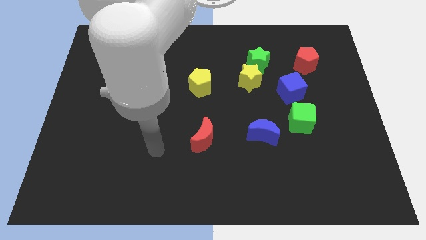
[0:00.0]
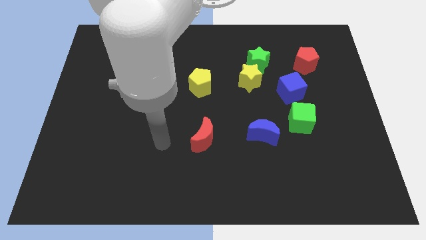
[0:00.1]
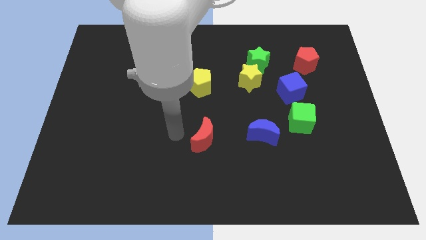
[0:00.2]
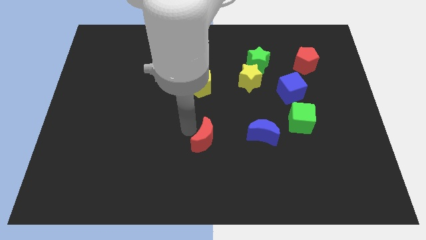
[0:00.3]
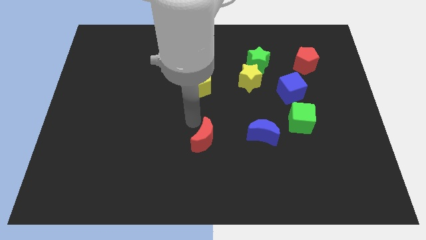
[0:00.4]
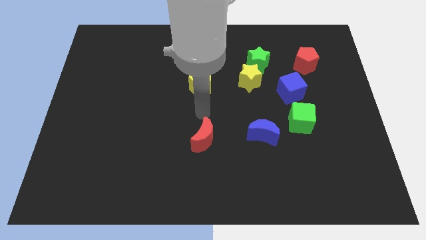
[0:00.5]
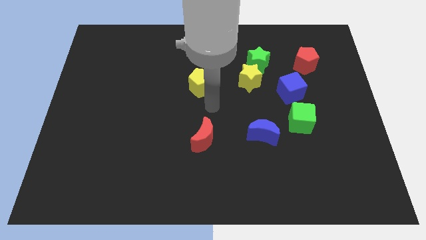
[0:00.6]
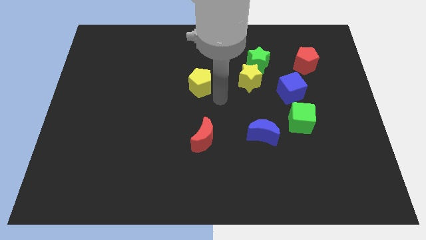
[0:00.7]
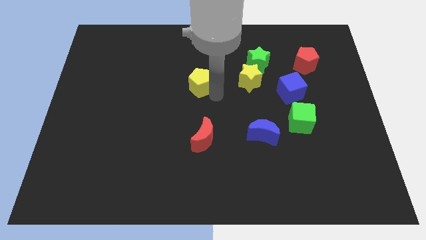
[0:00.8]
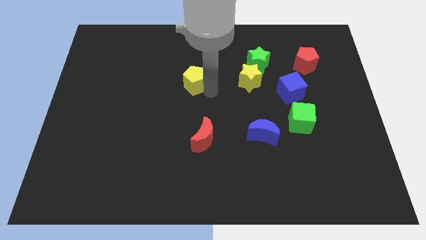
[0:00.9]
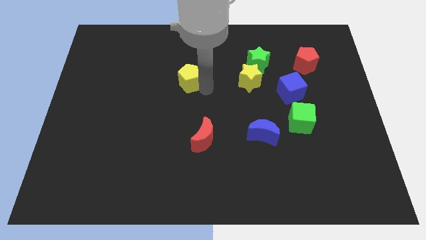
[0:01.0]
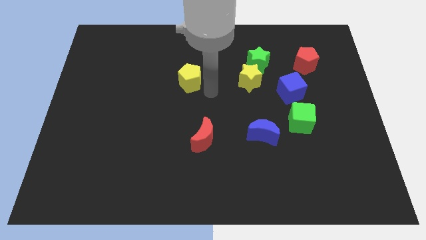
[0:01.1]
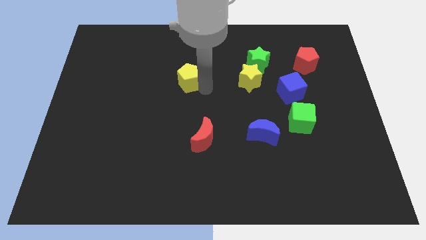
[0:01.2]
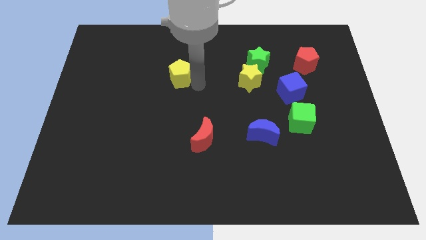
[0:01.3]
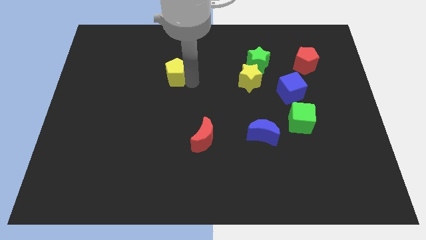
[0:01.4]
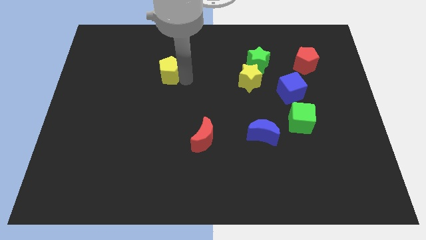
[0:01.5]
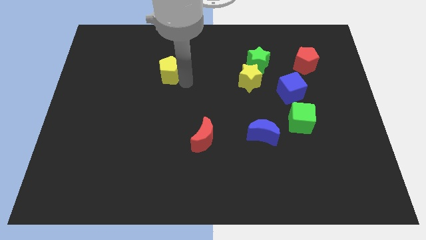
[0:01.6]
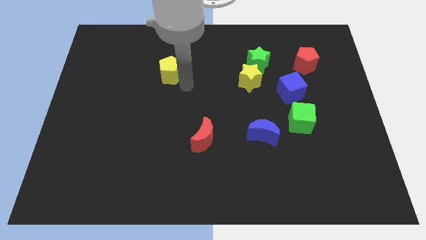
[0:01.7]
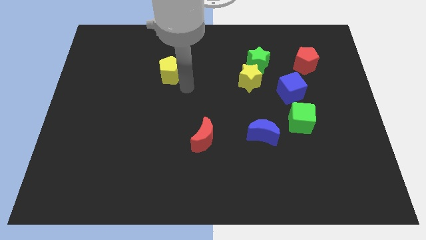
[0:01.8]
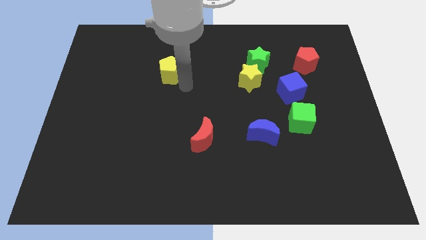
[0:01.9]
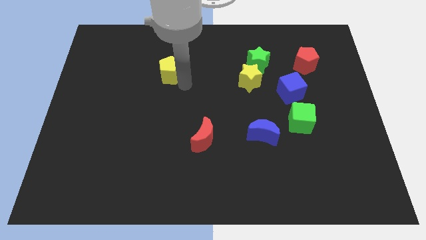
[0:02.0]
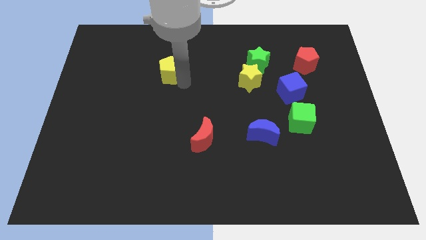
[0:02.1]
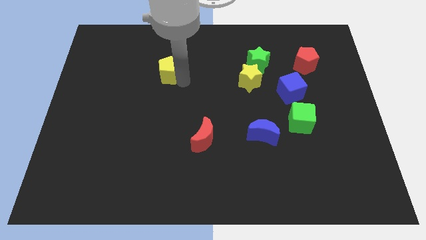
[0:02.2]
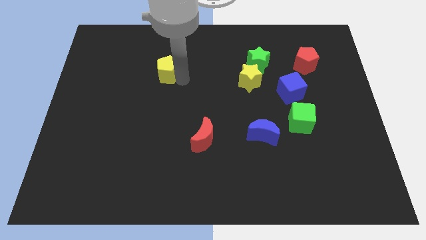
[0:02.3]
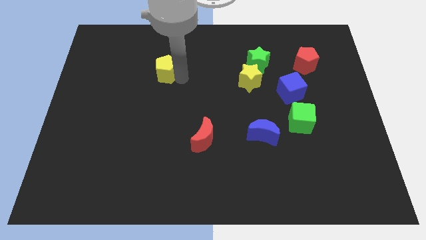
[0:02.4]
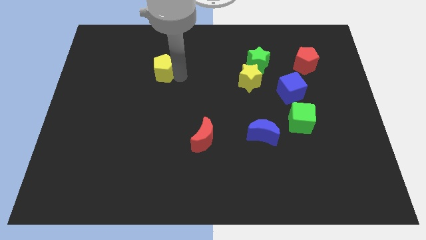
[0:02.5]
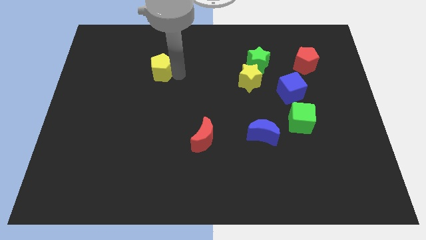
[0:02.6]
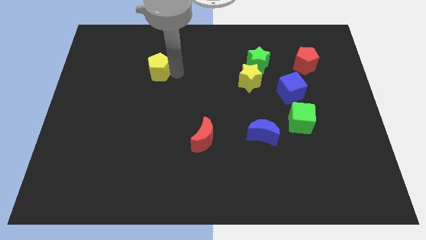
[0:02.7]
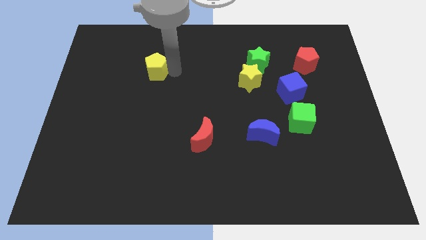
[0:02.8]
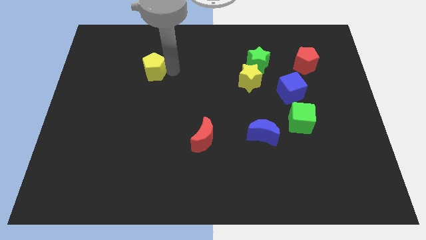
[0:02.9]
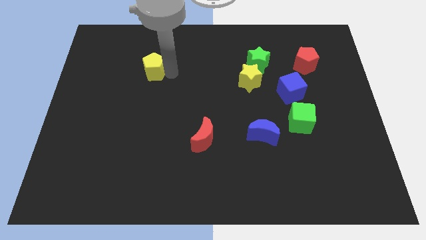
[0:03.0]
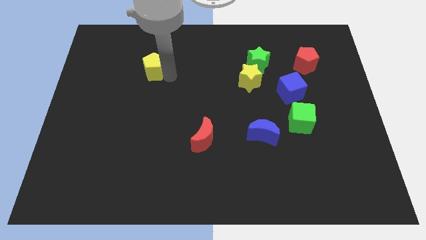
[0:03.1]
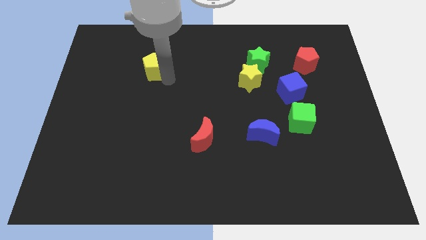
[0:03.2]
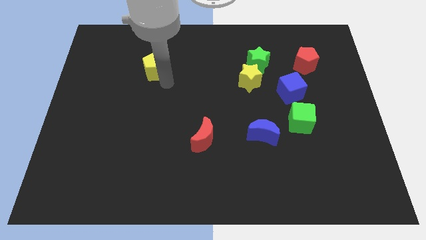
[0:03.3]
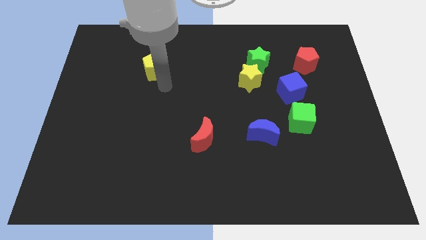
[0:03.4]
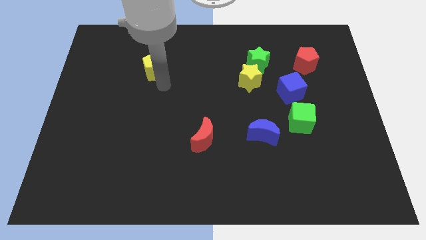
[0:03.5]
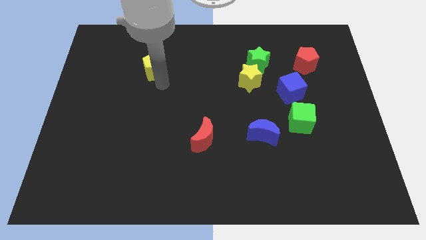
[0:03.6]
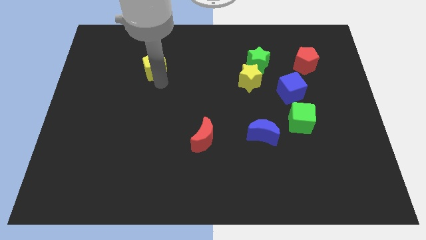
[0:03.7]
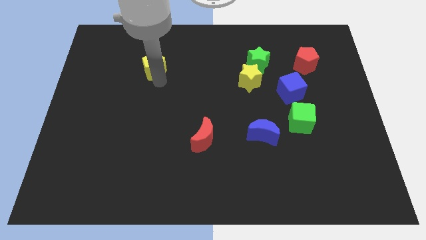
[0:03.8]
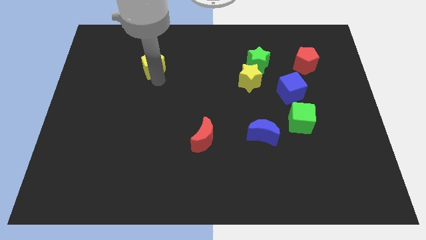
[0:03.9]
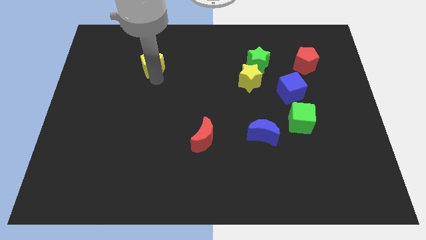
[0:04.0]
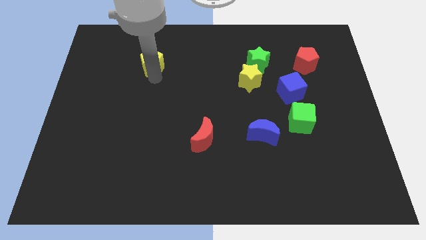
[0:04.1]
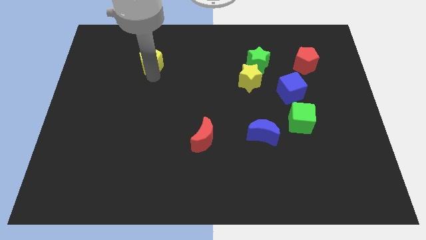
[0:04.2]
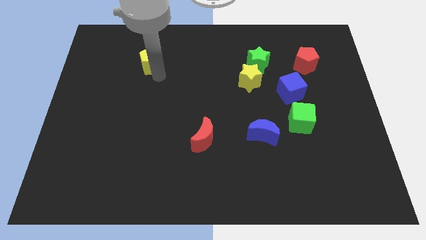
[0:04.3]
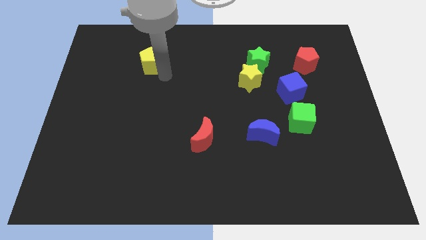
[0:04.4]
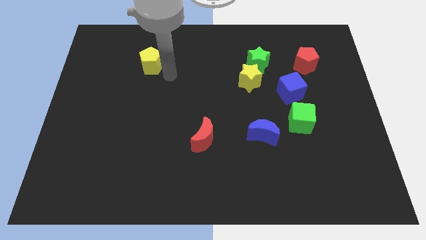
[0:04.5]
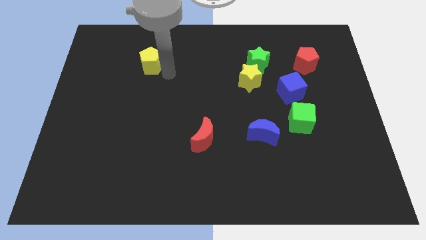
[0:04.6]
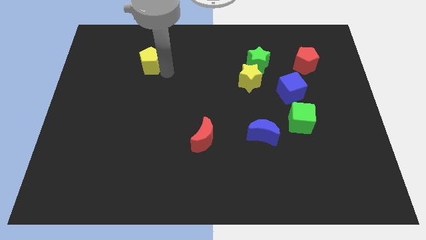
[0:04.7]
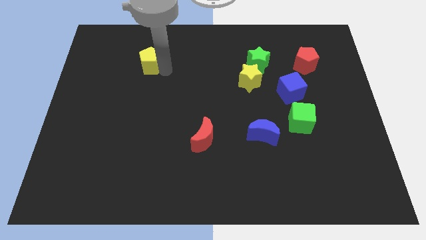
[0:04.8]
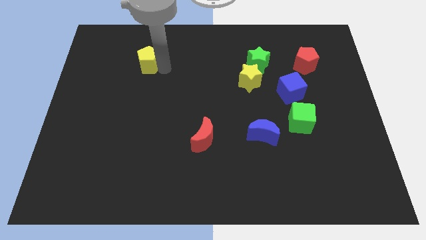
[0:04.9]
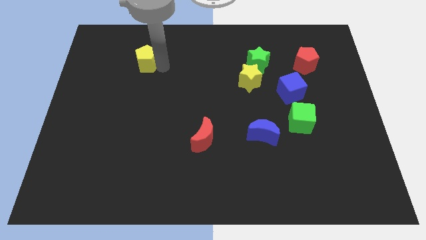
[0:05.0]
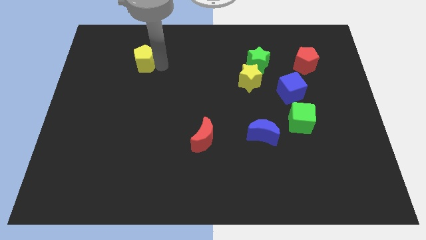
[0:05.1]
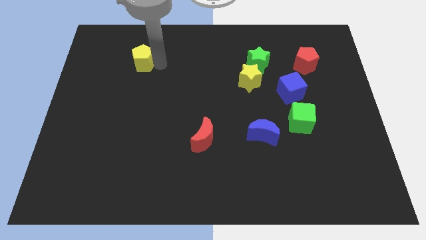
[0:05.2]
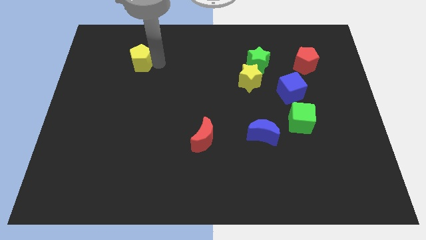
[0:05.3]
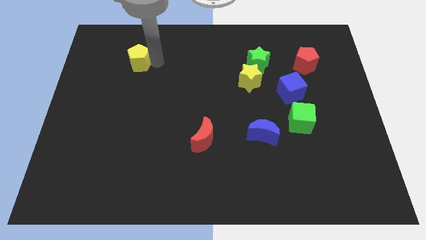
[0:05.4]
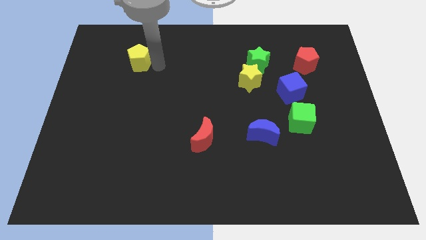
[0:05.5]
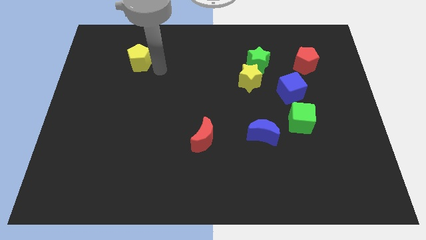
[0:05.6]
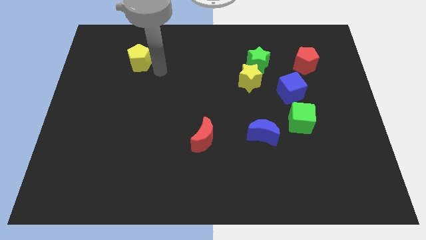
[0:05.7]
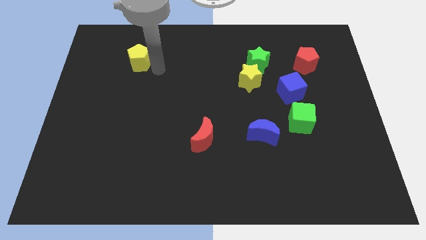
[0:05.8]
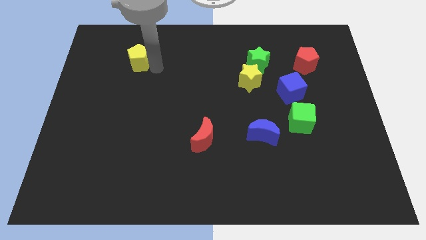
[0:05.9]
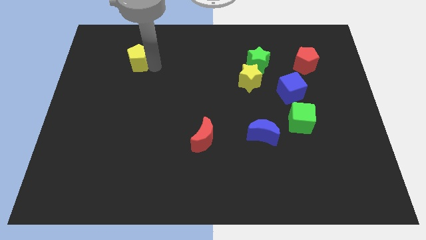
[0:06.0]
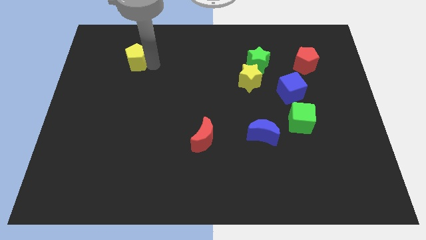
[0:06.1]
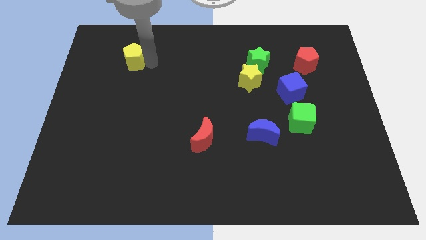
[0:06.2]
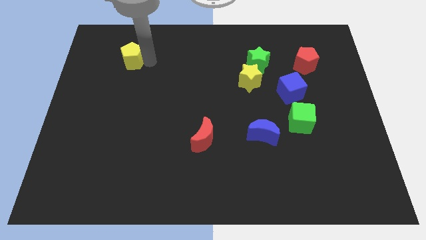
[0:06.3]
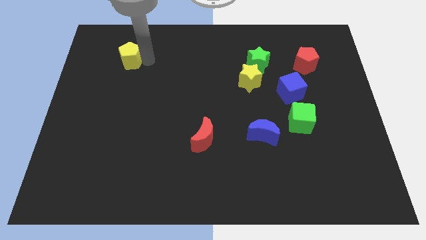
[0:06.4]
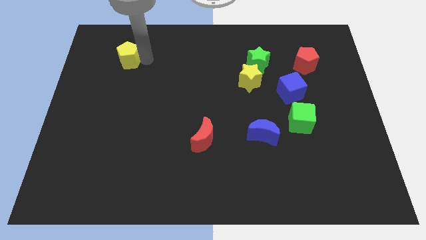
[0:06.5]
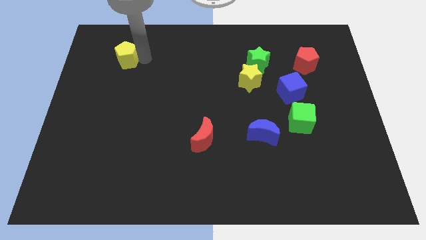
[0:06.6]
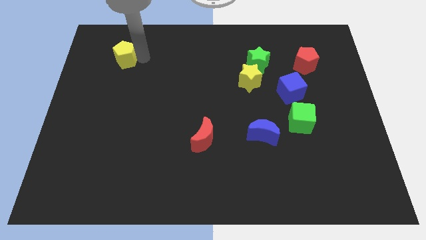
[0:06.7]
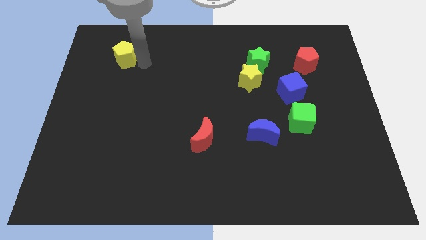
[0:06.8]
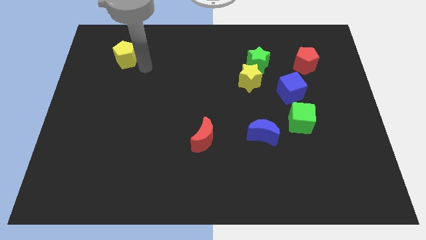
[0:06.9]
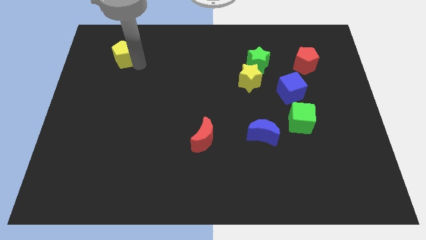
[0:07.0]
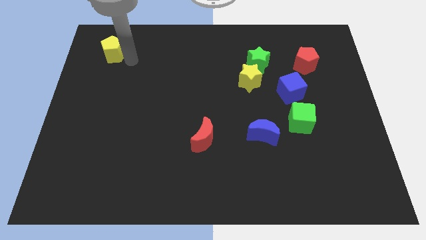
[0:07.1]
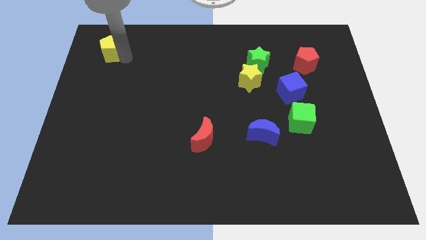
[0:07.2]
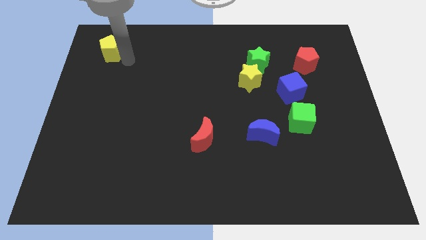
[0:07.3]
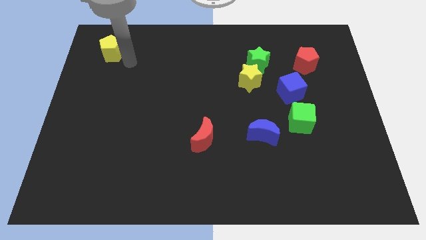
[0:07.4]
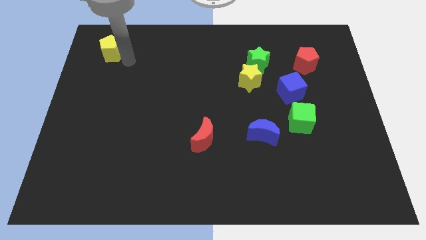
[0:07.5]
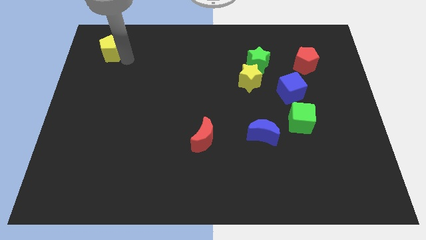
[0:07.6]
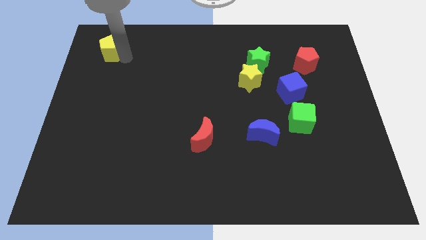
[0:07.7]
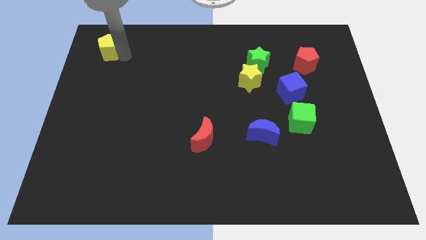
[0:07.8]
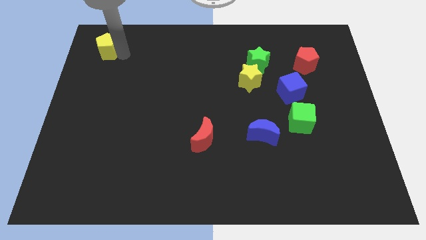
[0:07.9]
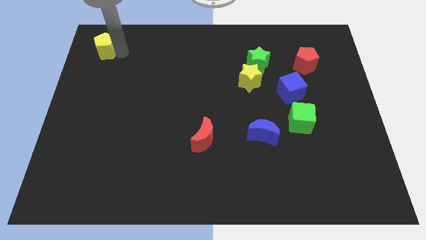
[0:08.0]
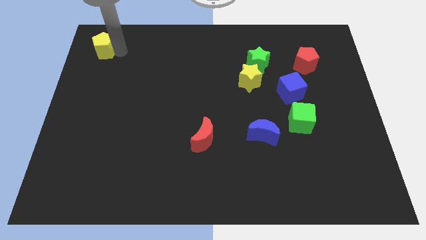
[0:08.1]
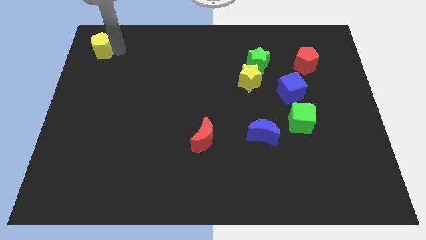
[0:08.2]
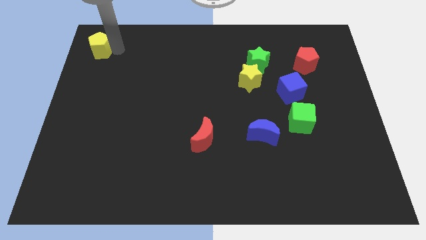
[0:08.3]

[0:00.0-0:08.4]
put the yellow pentagon to the top left
